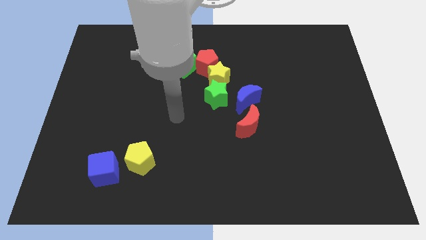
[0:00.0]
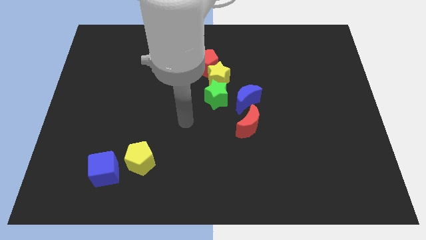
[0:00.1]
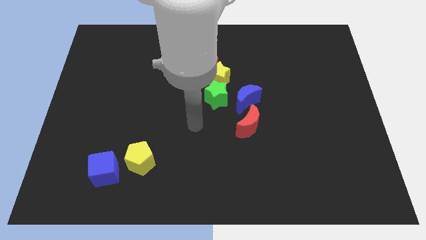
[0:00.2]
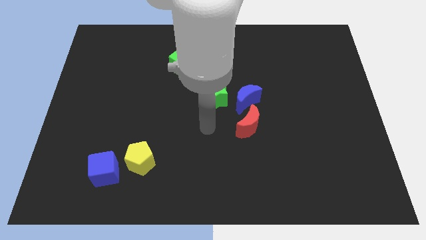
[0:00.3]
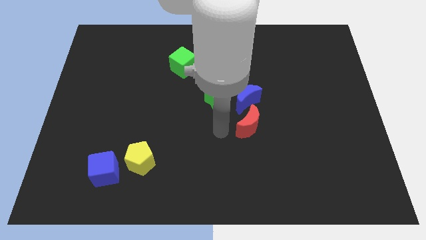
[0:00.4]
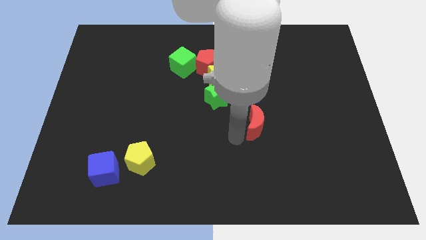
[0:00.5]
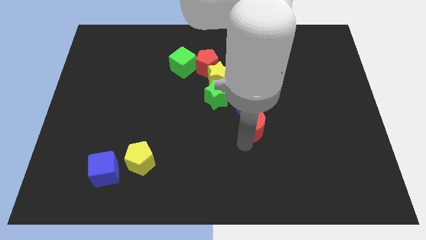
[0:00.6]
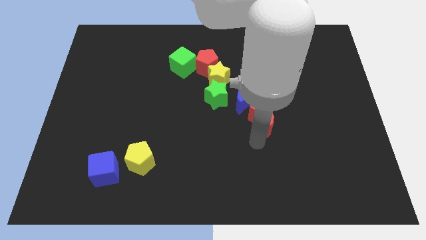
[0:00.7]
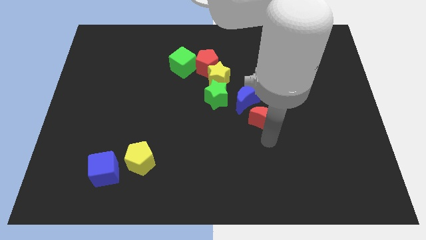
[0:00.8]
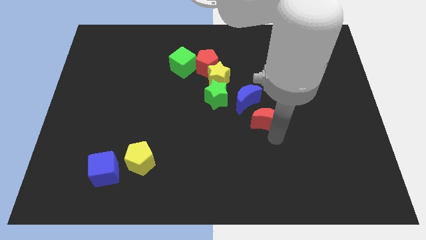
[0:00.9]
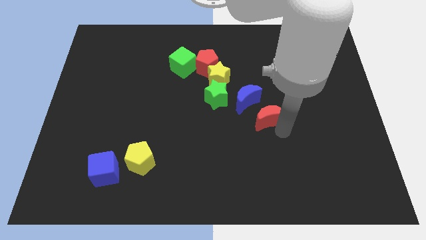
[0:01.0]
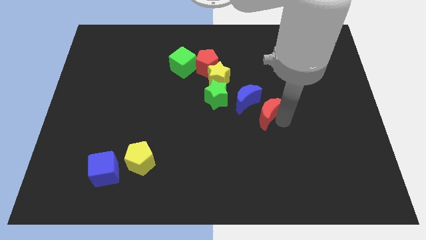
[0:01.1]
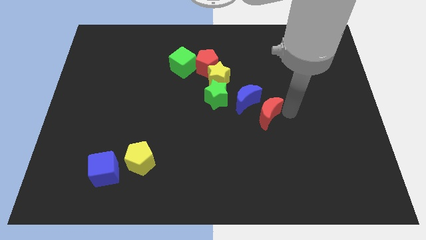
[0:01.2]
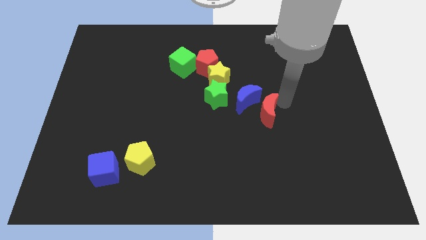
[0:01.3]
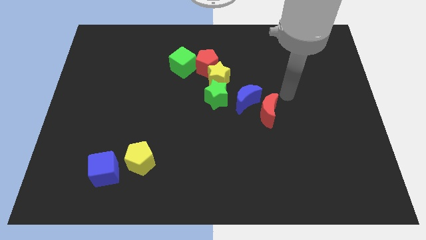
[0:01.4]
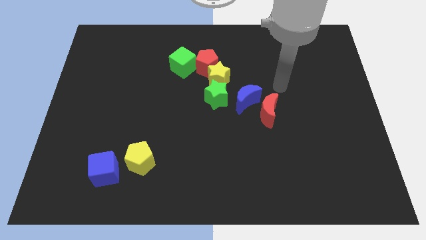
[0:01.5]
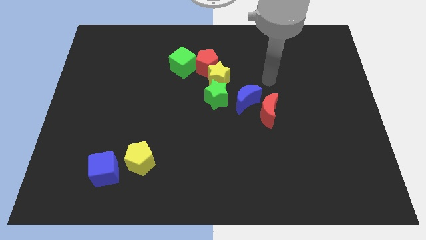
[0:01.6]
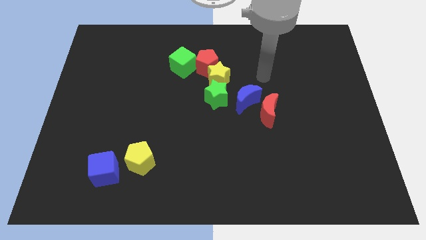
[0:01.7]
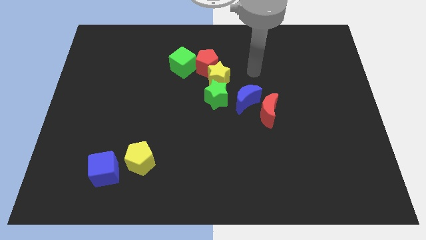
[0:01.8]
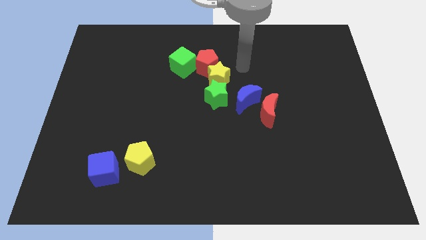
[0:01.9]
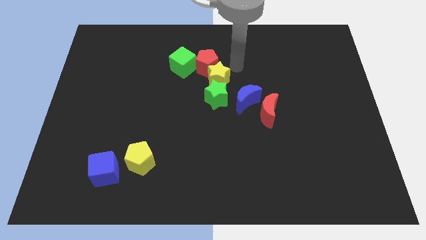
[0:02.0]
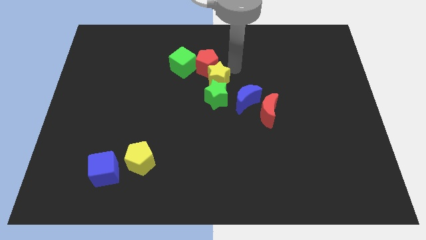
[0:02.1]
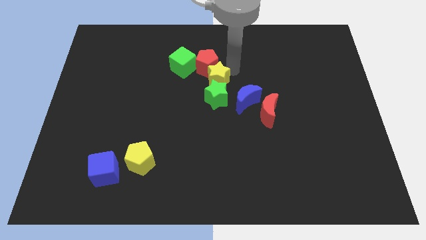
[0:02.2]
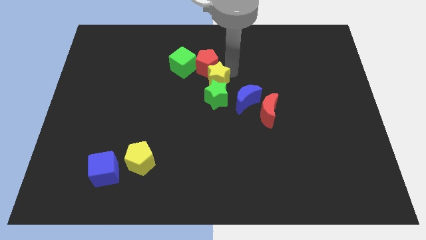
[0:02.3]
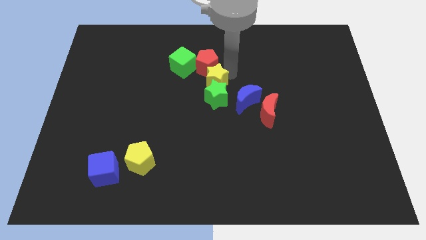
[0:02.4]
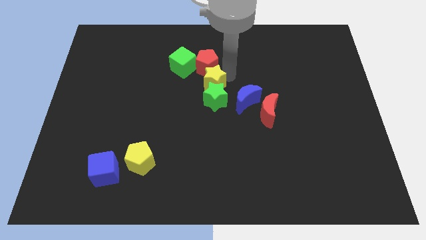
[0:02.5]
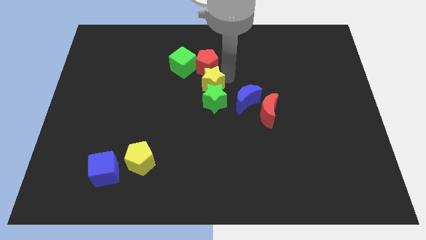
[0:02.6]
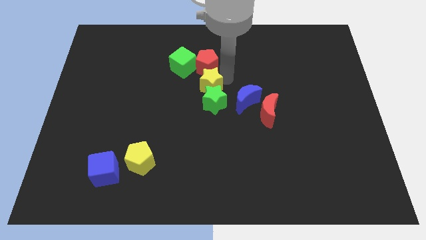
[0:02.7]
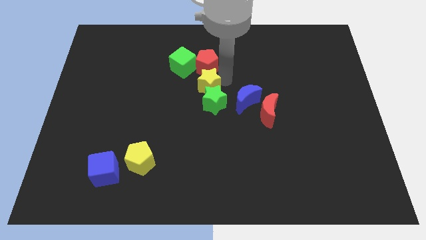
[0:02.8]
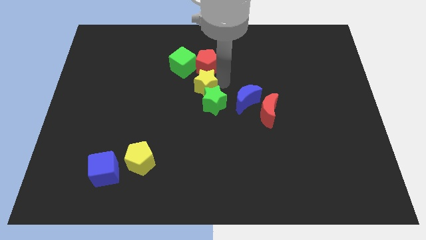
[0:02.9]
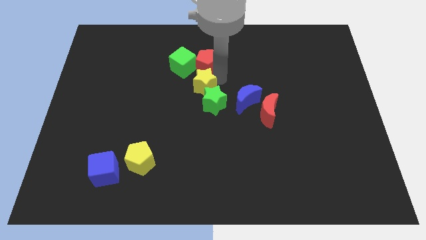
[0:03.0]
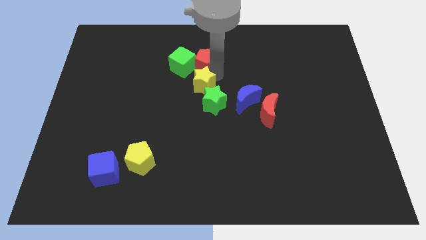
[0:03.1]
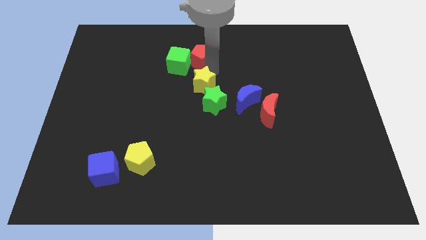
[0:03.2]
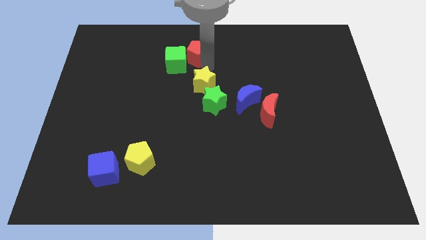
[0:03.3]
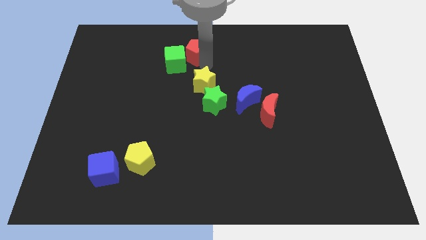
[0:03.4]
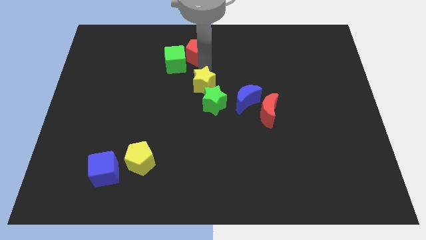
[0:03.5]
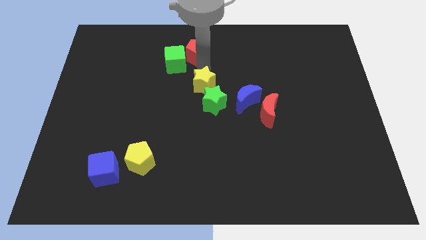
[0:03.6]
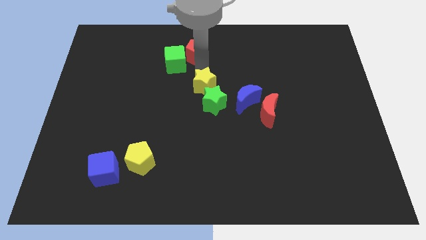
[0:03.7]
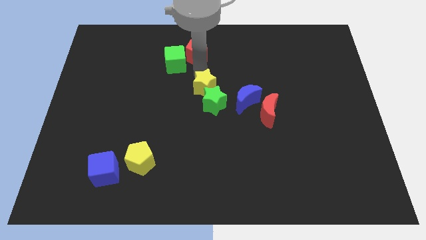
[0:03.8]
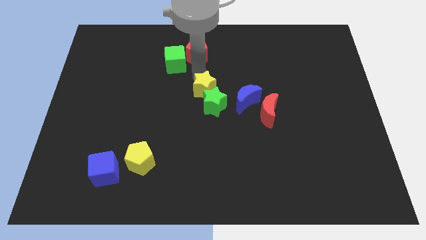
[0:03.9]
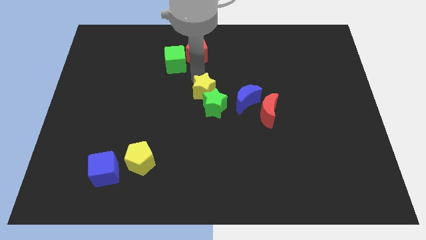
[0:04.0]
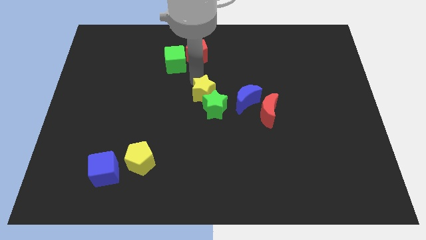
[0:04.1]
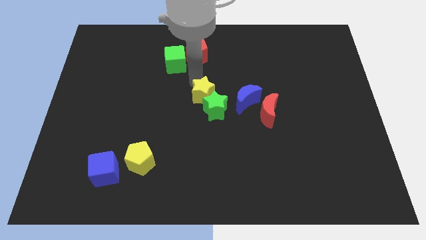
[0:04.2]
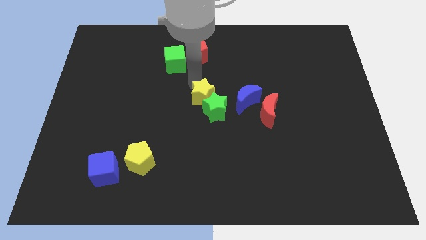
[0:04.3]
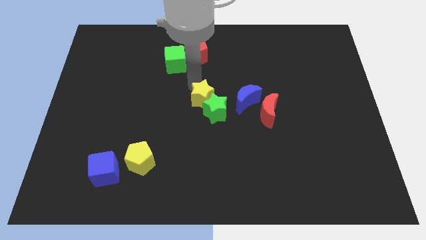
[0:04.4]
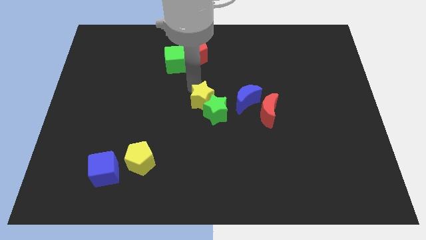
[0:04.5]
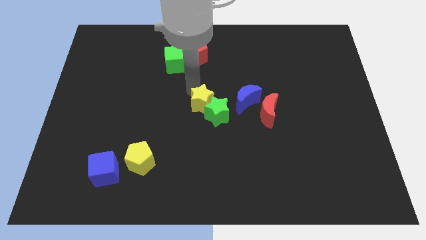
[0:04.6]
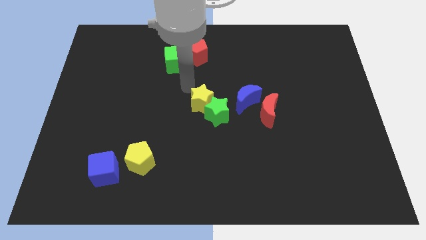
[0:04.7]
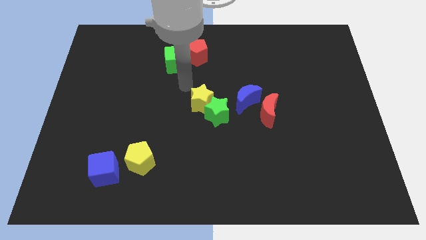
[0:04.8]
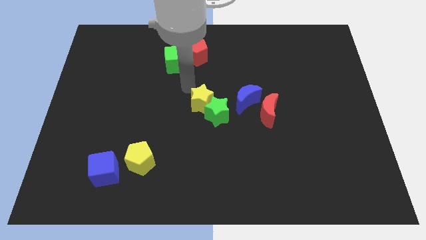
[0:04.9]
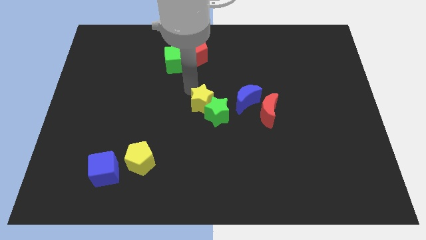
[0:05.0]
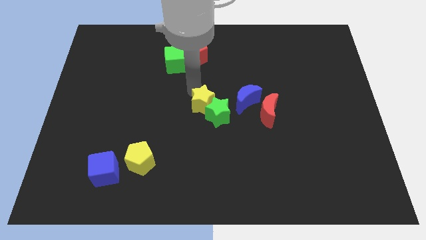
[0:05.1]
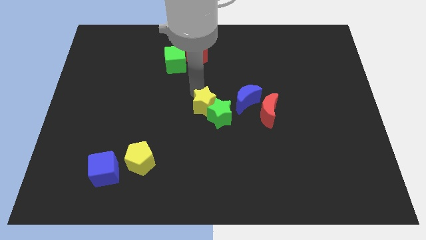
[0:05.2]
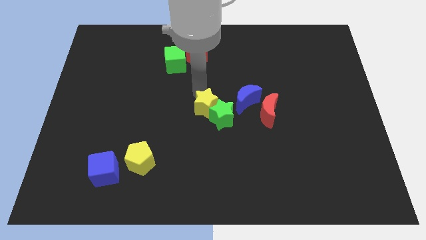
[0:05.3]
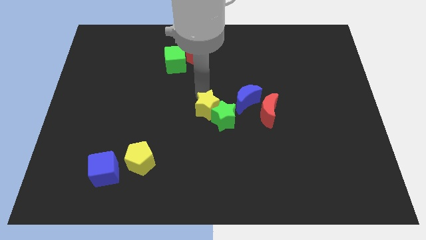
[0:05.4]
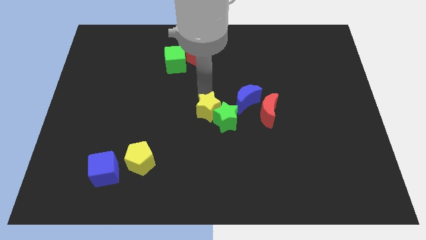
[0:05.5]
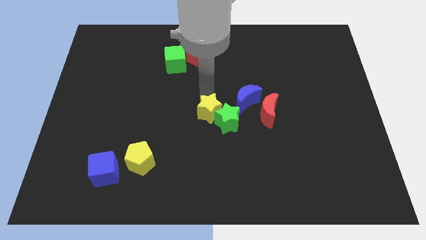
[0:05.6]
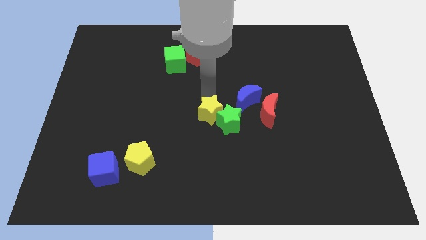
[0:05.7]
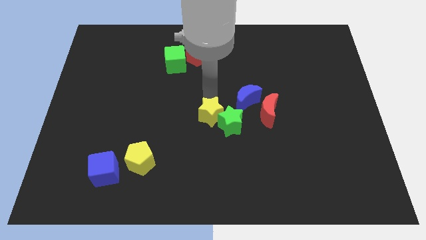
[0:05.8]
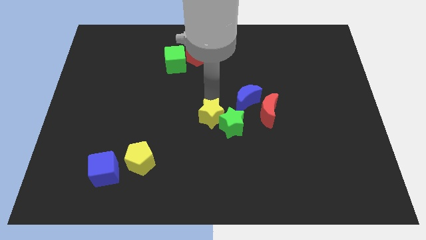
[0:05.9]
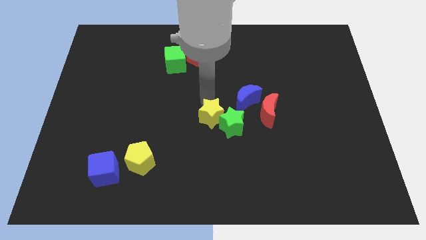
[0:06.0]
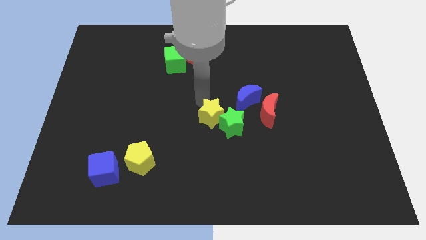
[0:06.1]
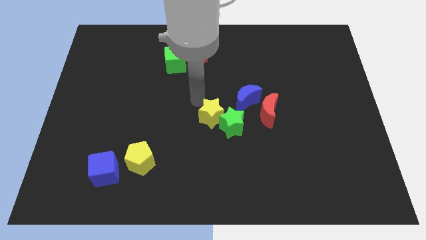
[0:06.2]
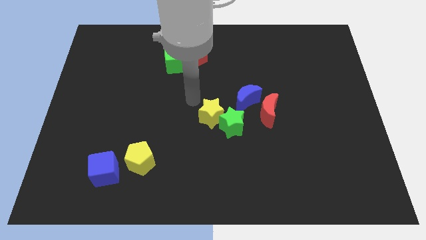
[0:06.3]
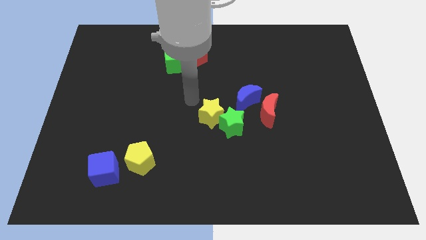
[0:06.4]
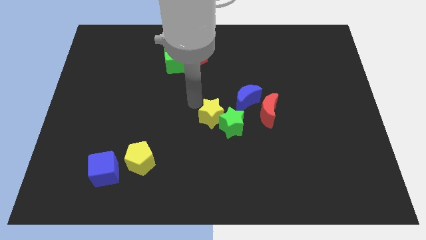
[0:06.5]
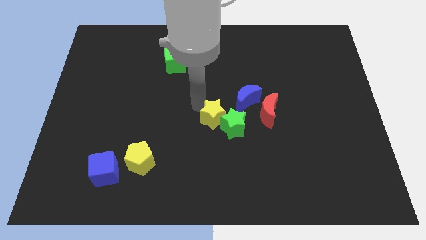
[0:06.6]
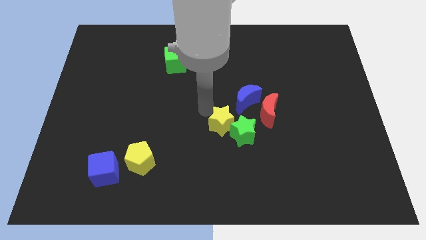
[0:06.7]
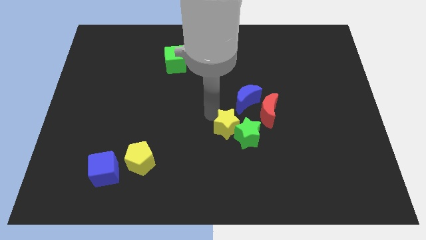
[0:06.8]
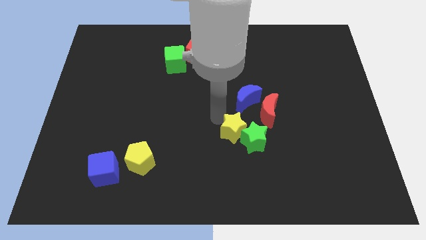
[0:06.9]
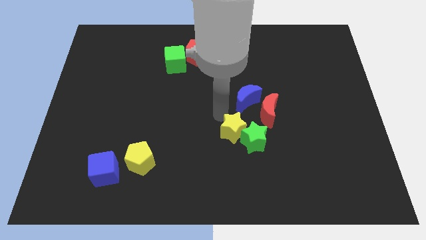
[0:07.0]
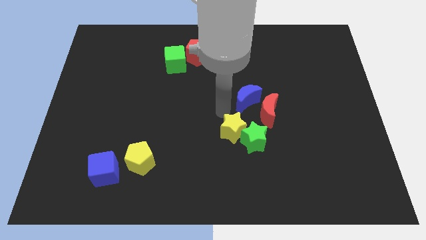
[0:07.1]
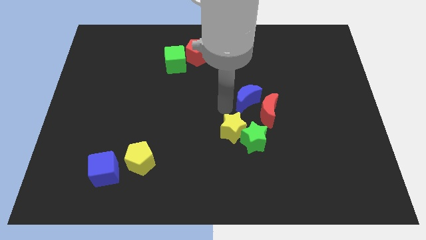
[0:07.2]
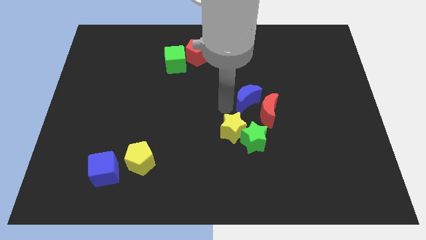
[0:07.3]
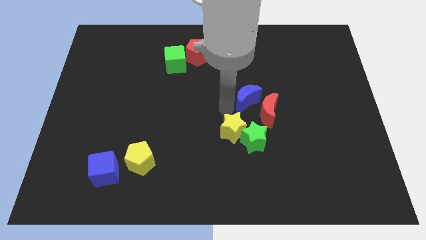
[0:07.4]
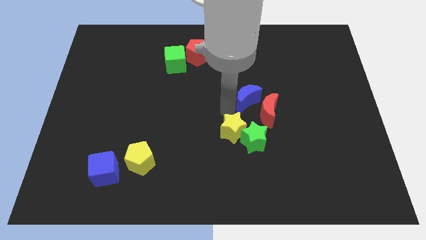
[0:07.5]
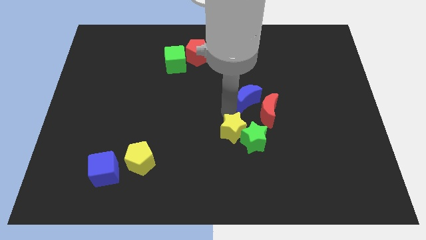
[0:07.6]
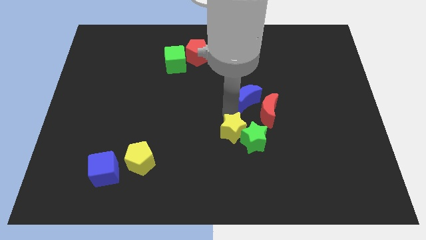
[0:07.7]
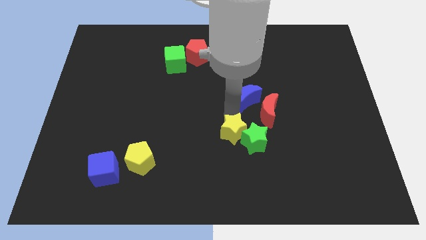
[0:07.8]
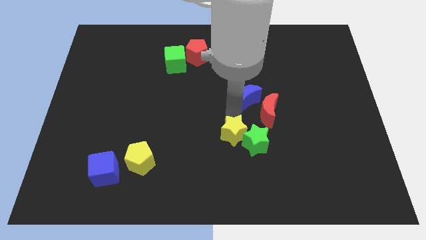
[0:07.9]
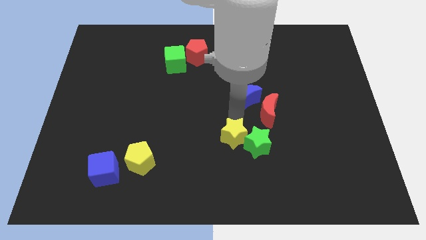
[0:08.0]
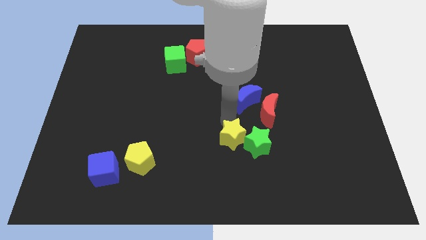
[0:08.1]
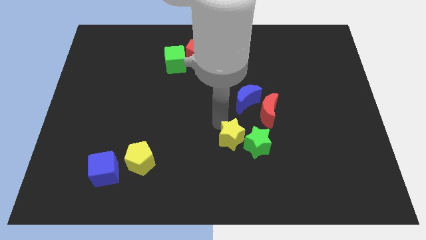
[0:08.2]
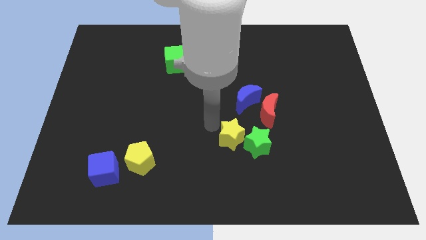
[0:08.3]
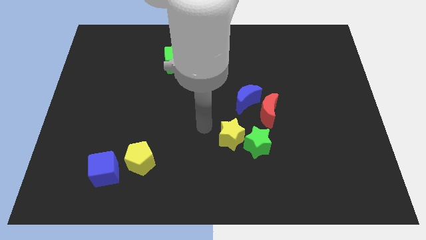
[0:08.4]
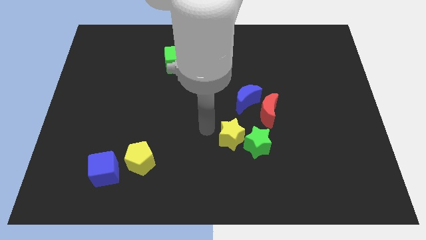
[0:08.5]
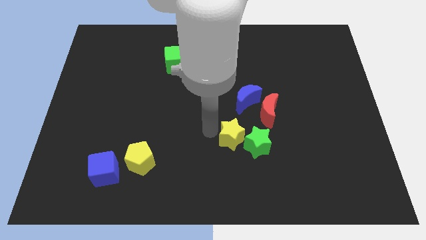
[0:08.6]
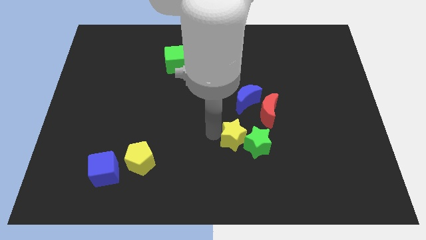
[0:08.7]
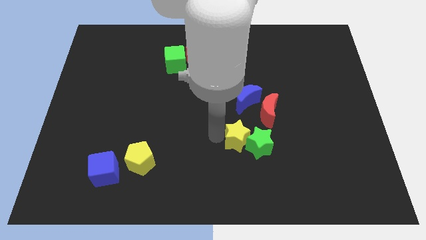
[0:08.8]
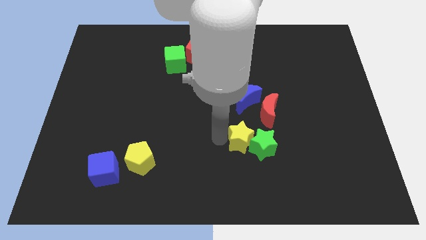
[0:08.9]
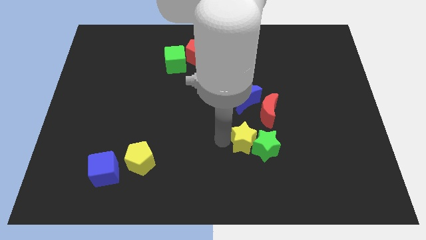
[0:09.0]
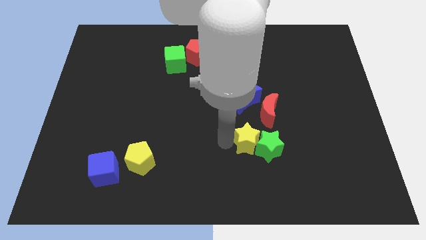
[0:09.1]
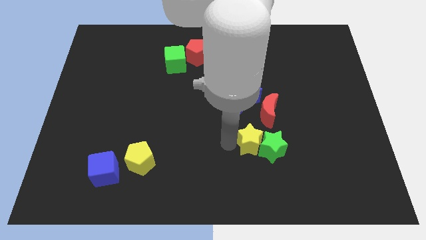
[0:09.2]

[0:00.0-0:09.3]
push the yellow star to the bottom of the red moon
